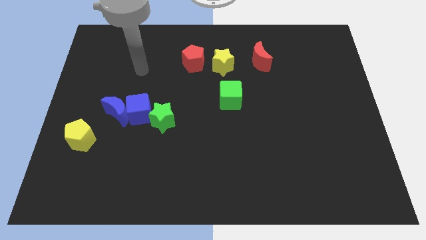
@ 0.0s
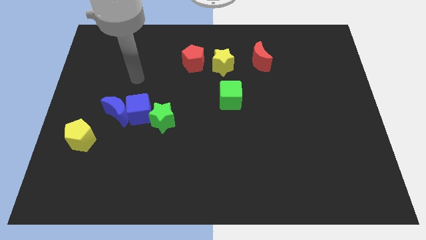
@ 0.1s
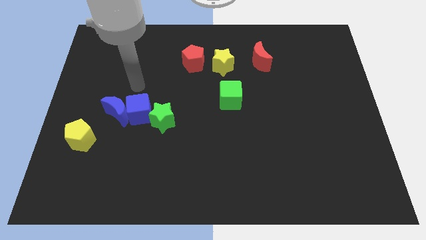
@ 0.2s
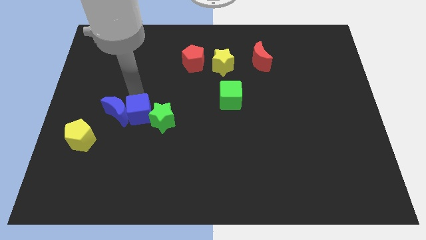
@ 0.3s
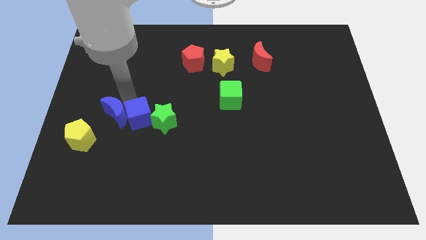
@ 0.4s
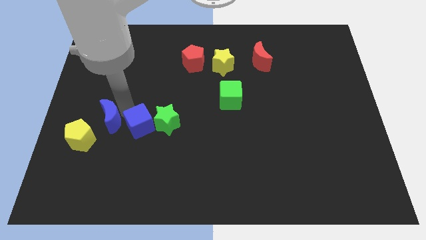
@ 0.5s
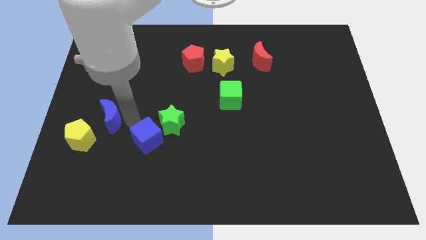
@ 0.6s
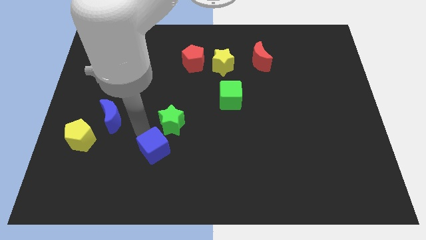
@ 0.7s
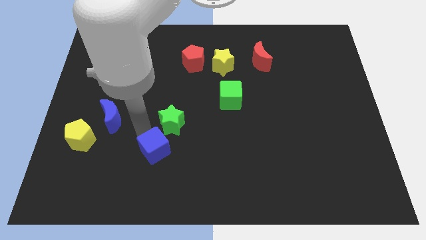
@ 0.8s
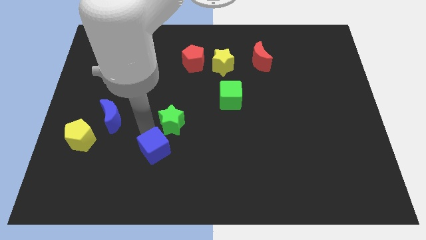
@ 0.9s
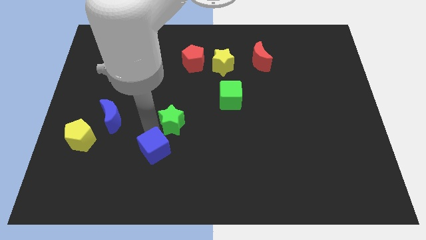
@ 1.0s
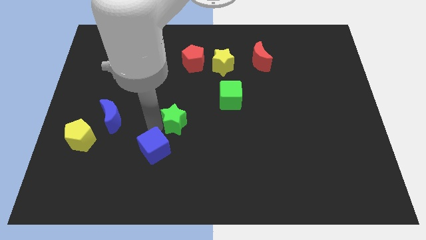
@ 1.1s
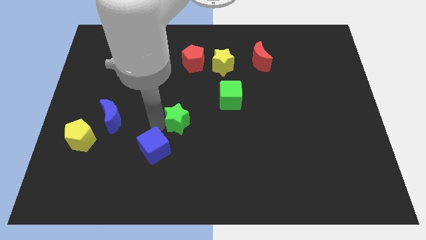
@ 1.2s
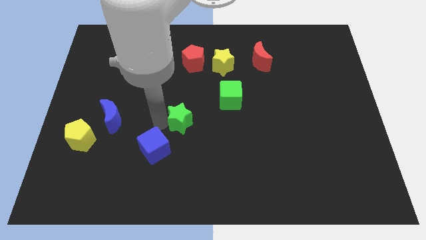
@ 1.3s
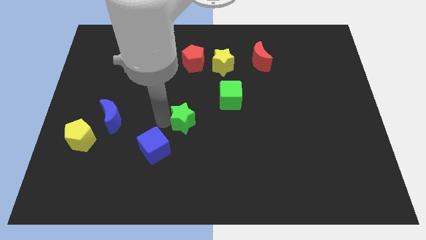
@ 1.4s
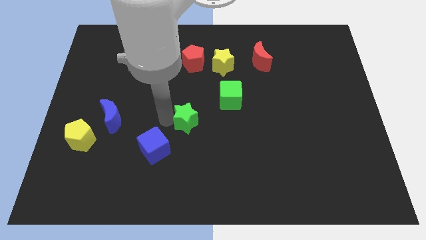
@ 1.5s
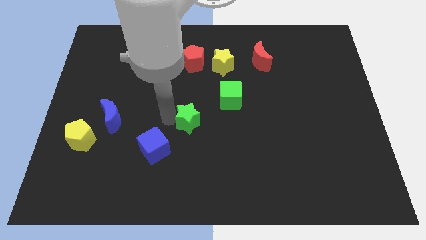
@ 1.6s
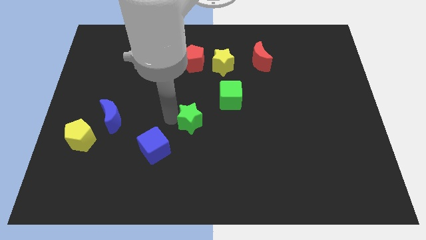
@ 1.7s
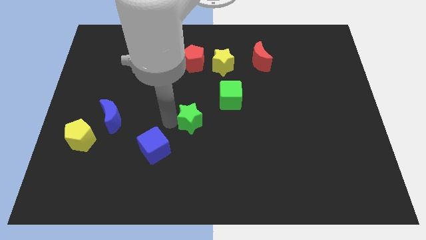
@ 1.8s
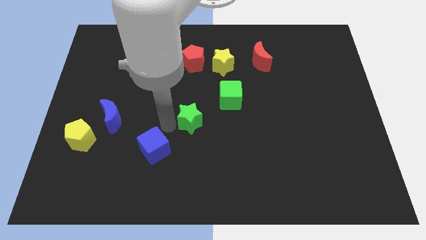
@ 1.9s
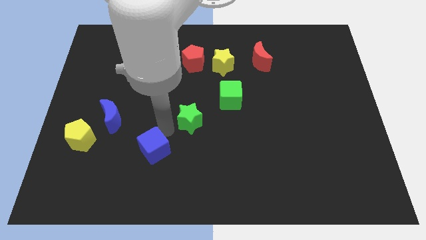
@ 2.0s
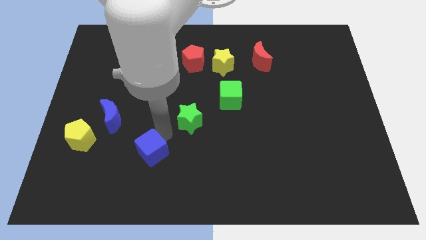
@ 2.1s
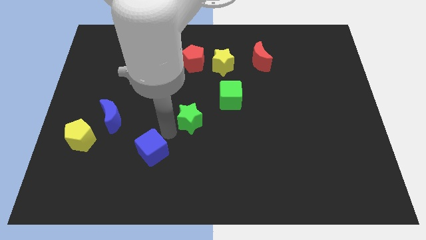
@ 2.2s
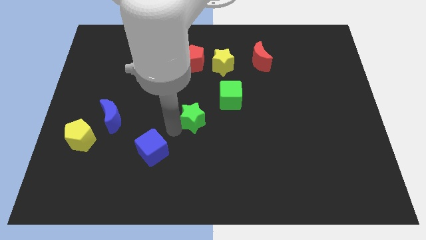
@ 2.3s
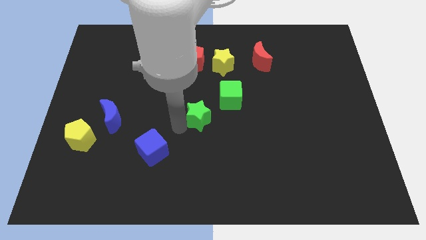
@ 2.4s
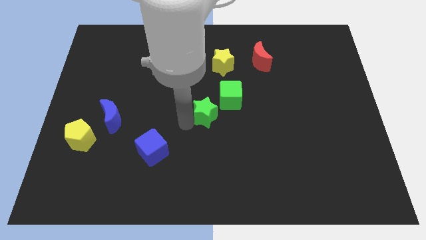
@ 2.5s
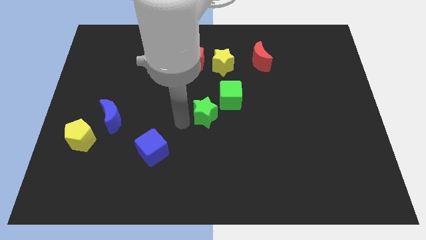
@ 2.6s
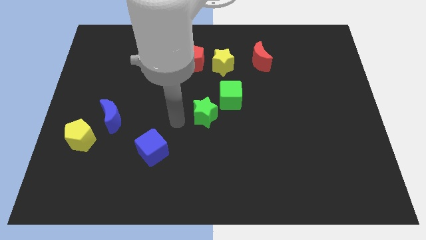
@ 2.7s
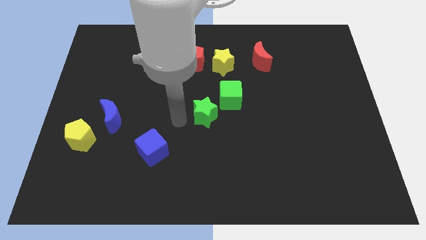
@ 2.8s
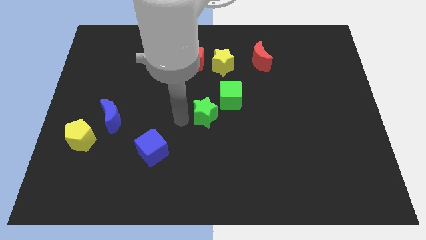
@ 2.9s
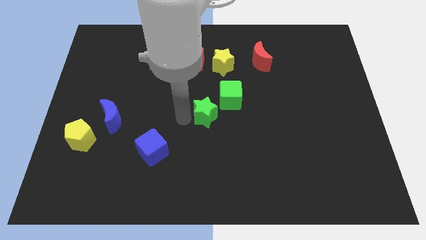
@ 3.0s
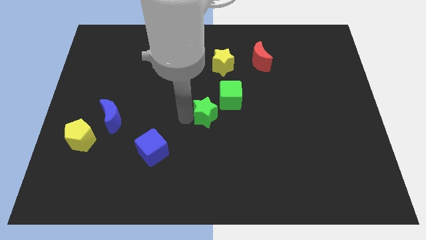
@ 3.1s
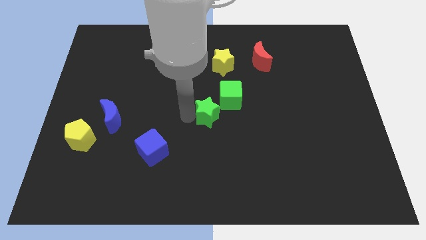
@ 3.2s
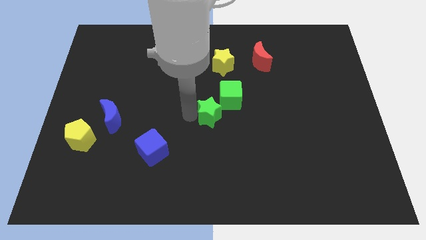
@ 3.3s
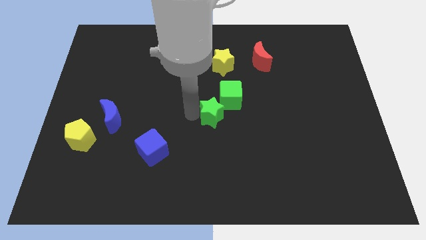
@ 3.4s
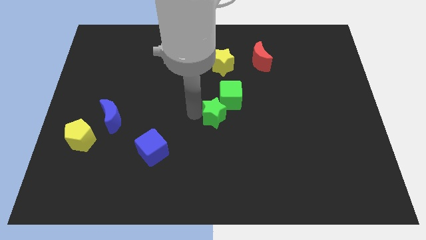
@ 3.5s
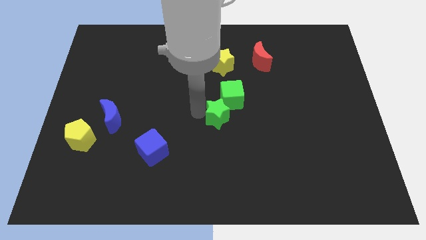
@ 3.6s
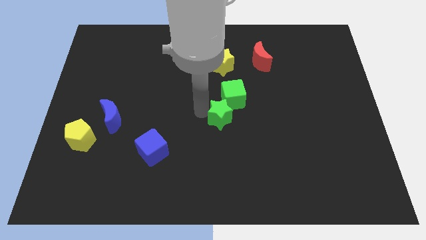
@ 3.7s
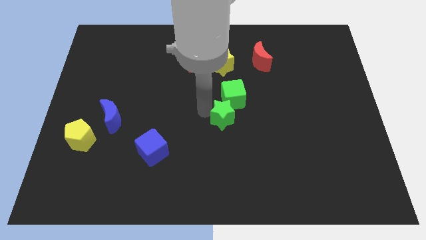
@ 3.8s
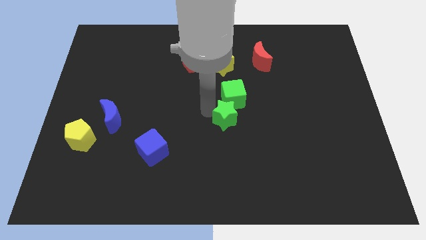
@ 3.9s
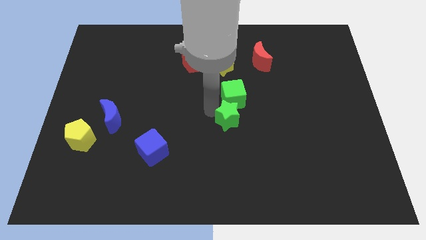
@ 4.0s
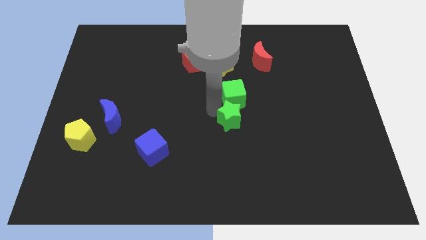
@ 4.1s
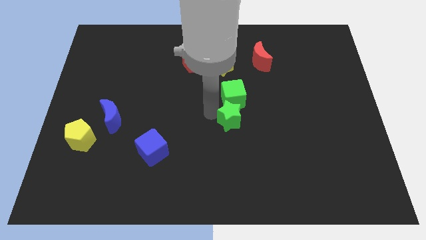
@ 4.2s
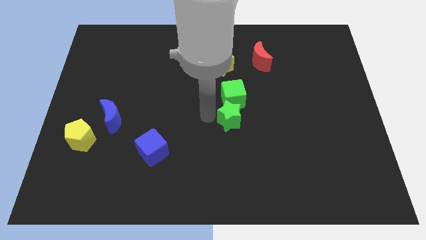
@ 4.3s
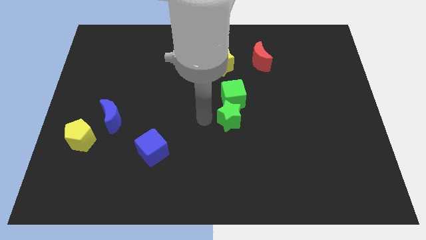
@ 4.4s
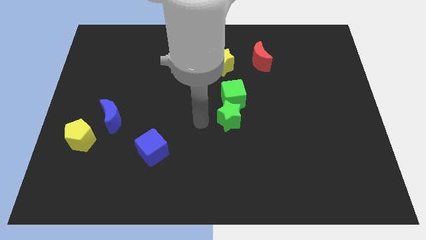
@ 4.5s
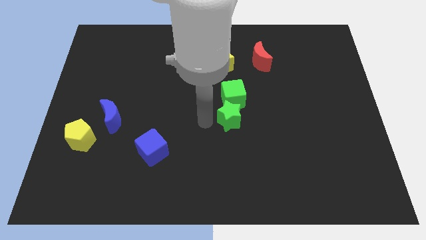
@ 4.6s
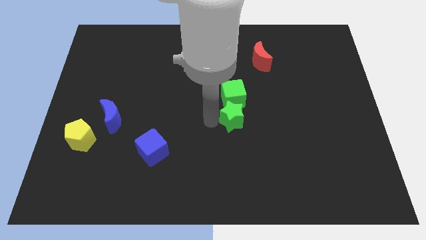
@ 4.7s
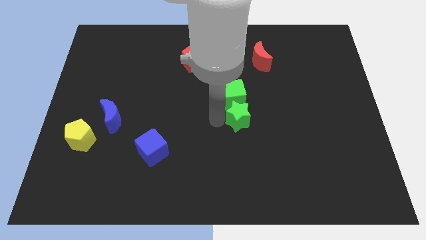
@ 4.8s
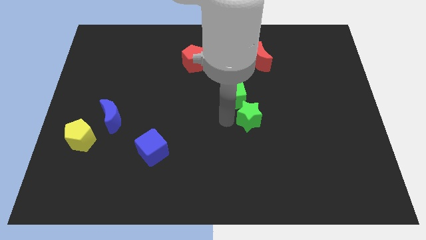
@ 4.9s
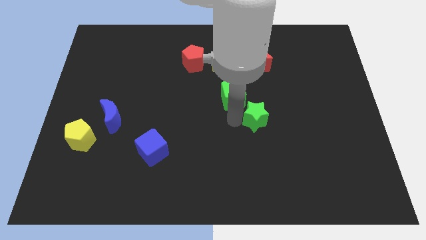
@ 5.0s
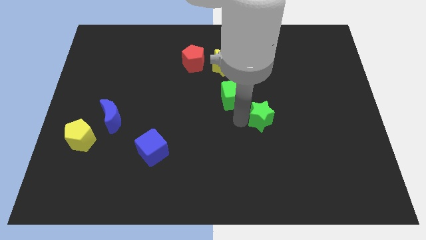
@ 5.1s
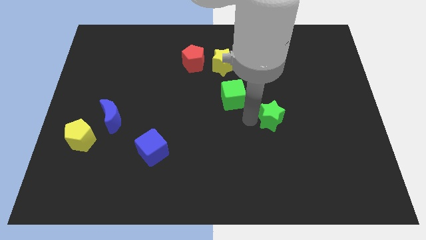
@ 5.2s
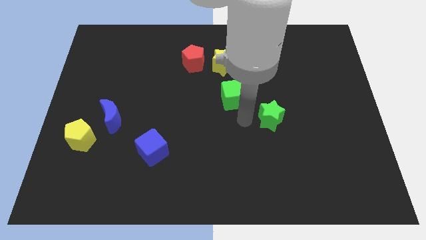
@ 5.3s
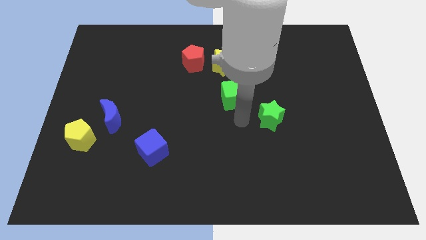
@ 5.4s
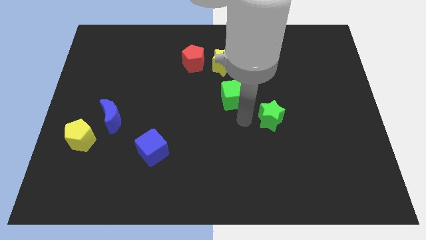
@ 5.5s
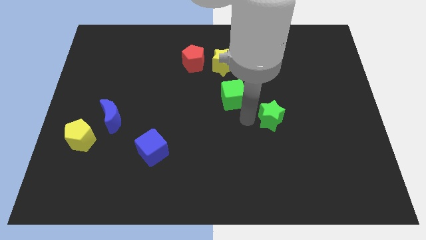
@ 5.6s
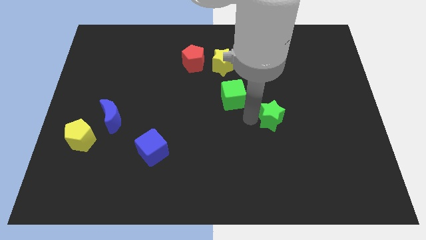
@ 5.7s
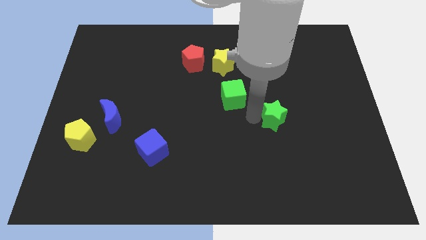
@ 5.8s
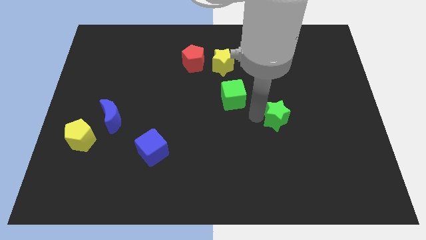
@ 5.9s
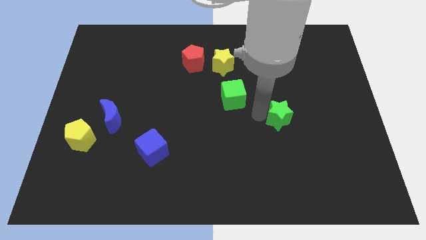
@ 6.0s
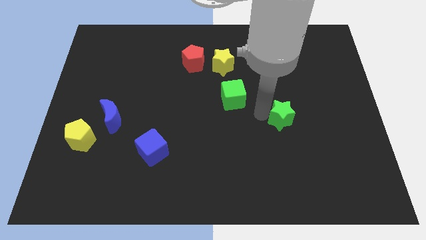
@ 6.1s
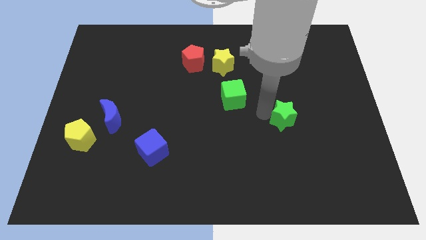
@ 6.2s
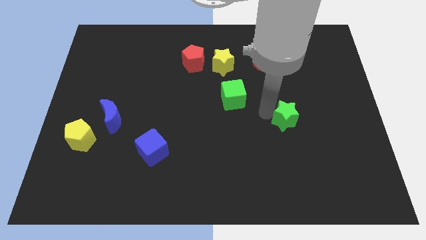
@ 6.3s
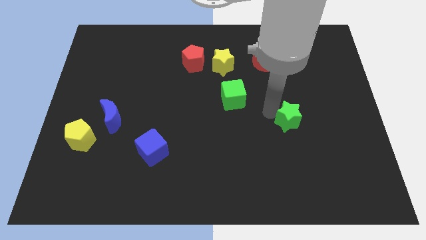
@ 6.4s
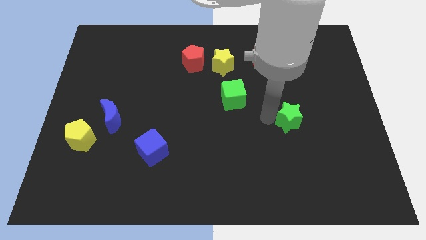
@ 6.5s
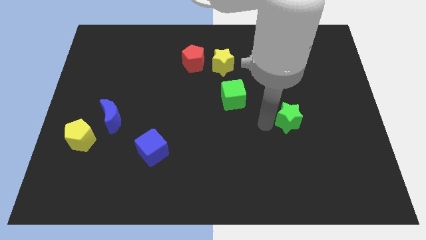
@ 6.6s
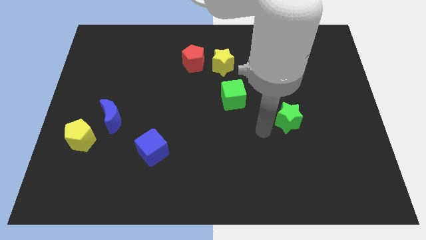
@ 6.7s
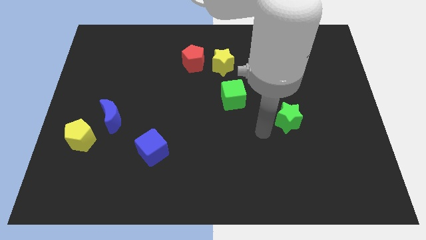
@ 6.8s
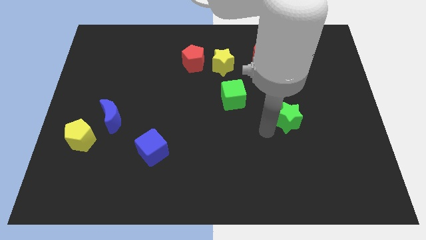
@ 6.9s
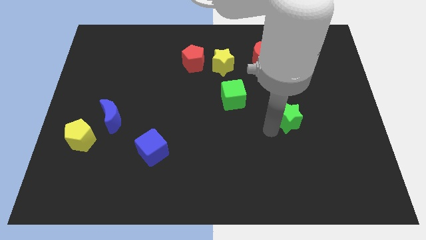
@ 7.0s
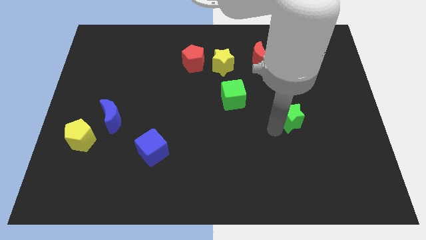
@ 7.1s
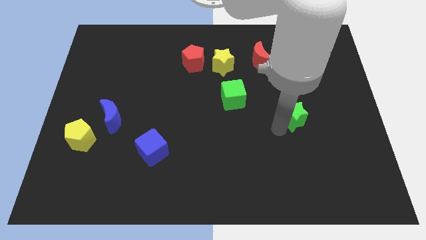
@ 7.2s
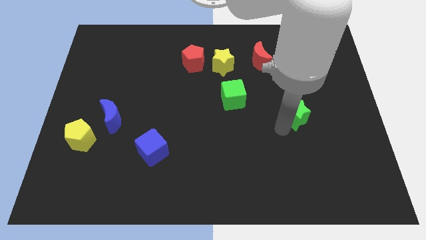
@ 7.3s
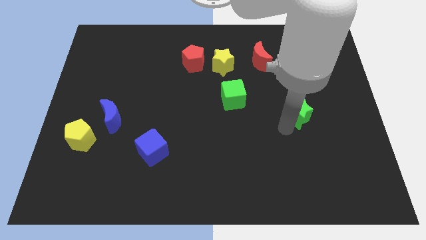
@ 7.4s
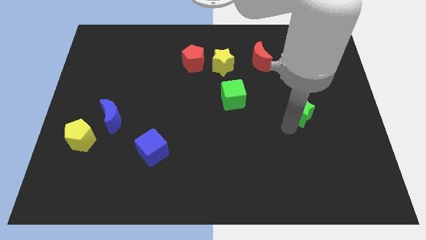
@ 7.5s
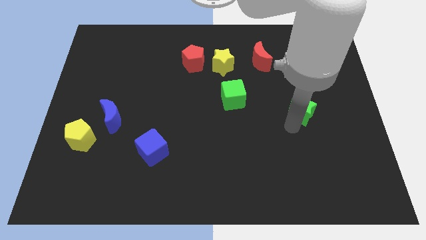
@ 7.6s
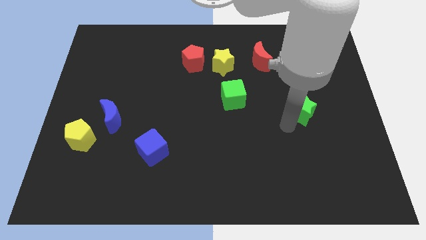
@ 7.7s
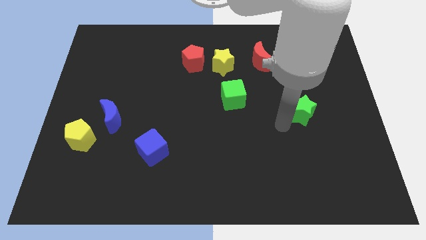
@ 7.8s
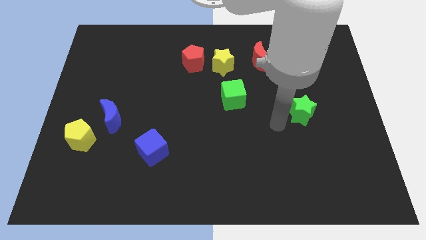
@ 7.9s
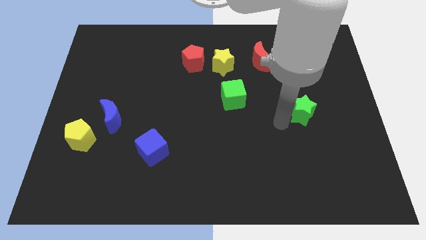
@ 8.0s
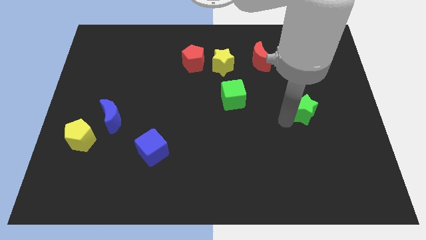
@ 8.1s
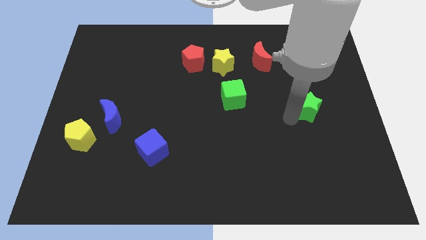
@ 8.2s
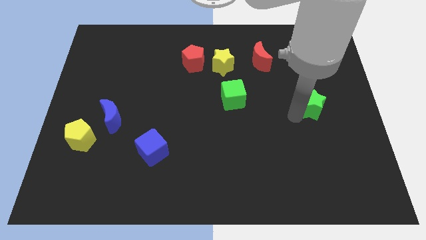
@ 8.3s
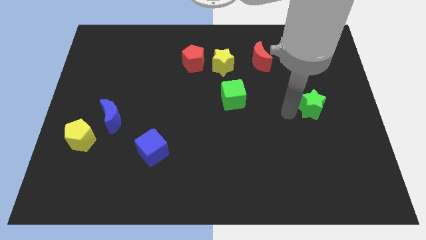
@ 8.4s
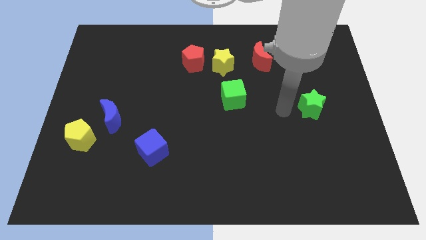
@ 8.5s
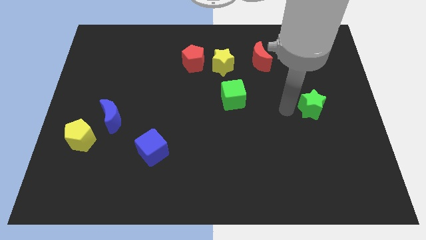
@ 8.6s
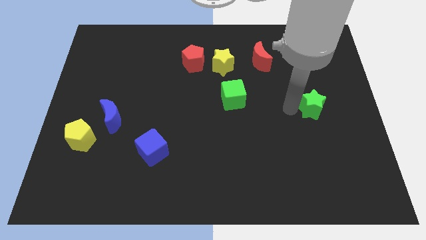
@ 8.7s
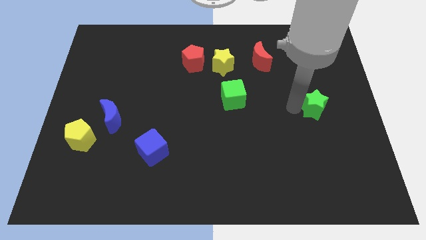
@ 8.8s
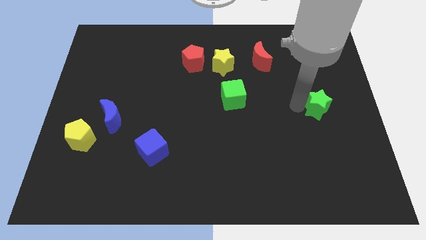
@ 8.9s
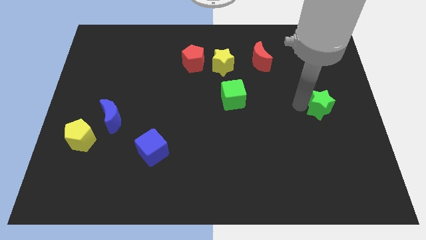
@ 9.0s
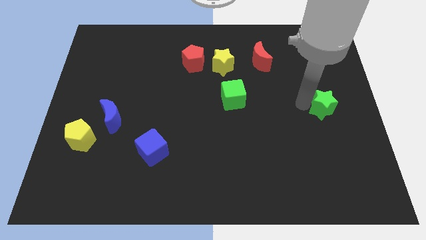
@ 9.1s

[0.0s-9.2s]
put the green star to the right side of the board
